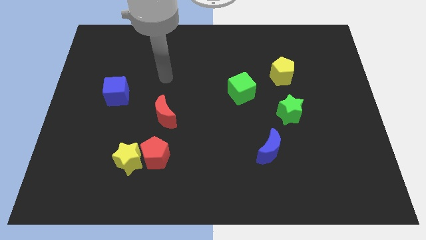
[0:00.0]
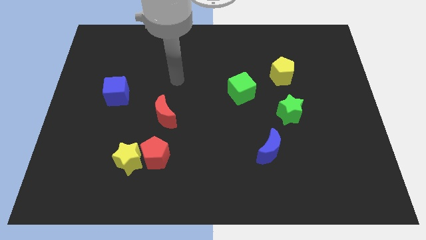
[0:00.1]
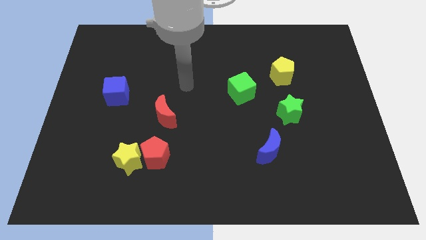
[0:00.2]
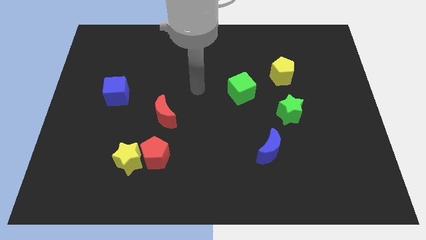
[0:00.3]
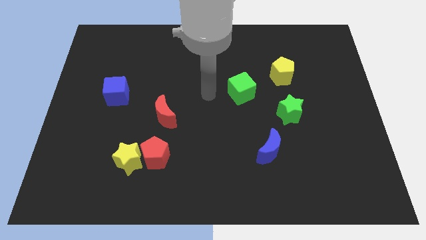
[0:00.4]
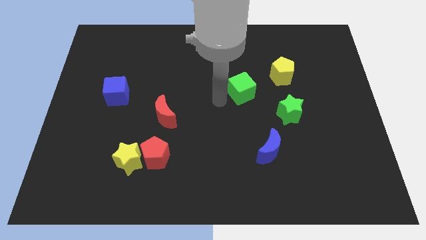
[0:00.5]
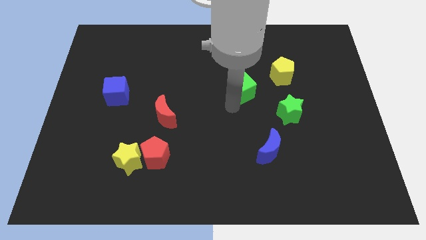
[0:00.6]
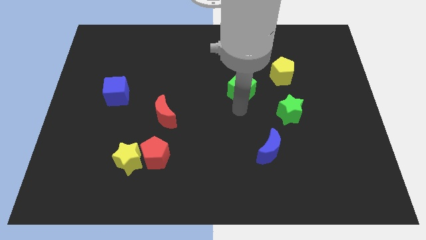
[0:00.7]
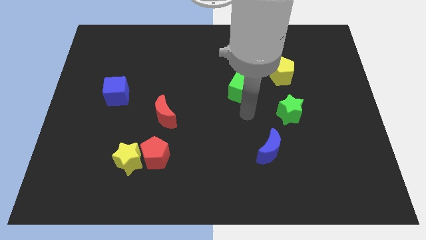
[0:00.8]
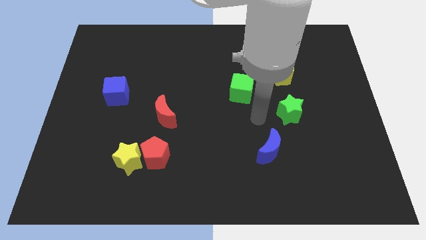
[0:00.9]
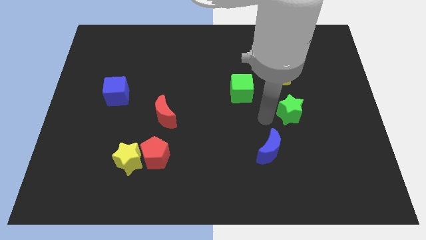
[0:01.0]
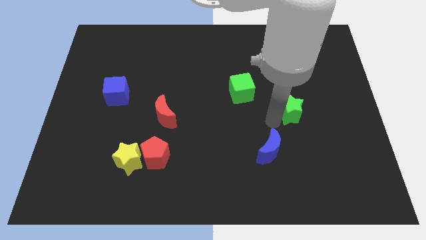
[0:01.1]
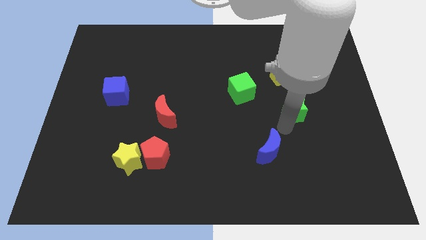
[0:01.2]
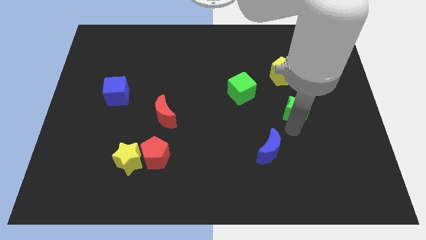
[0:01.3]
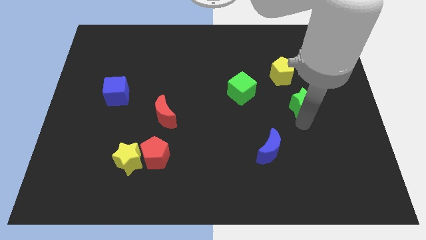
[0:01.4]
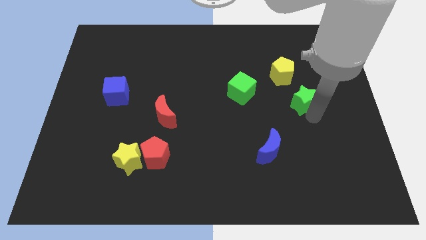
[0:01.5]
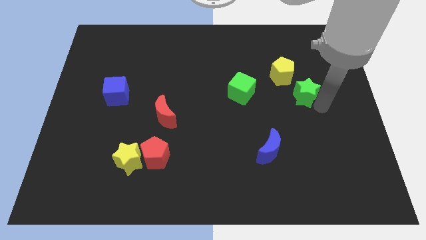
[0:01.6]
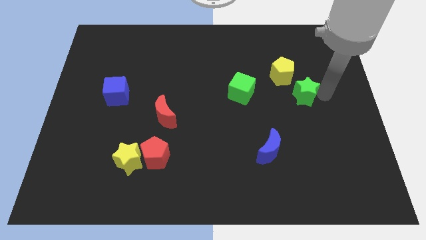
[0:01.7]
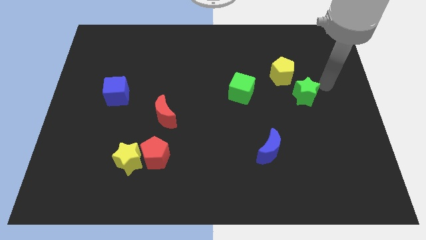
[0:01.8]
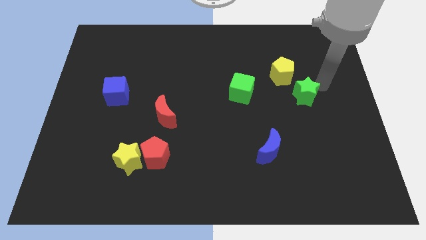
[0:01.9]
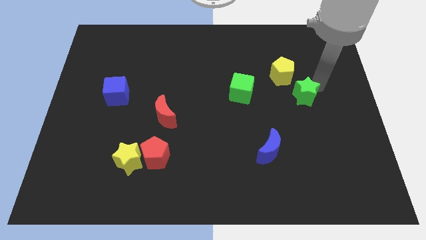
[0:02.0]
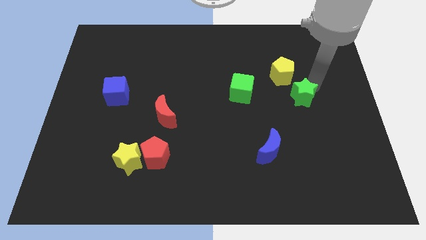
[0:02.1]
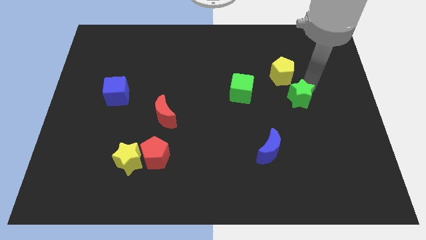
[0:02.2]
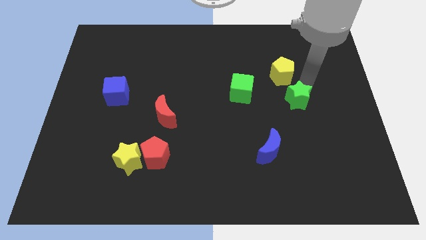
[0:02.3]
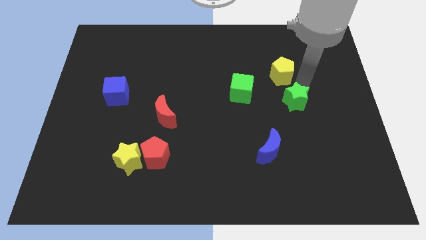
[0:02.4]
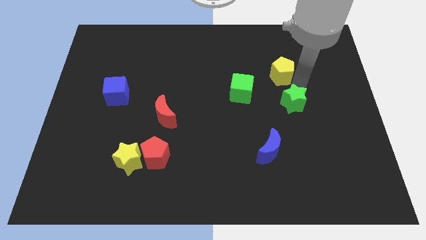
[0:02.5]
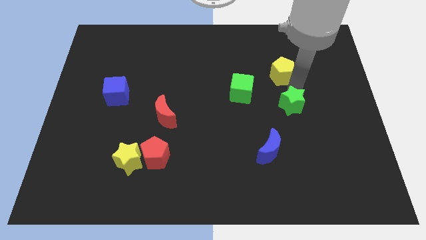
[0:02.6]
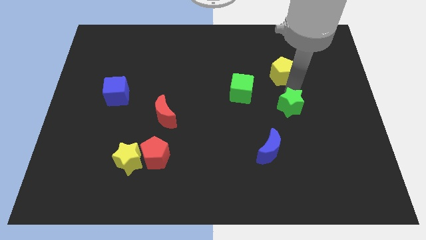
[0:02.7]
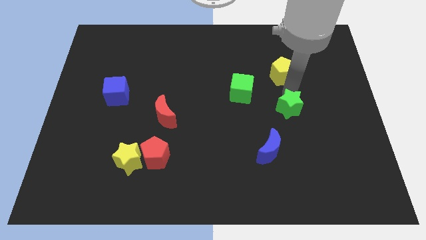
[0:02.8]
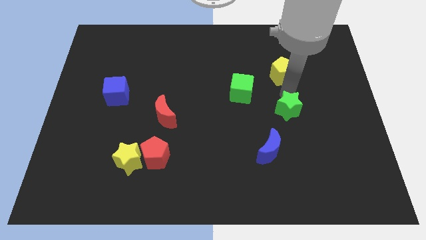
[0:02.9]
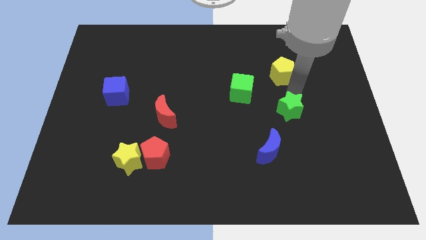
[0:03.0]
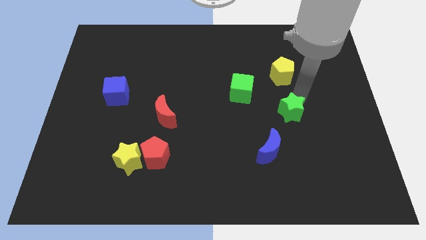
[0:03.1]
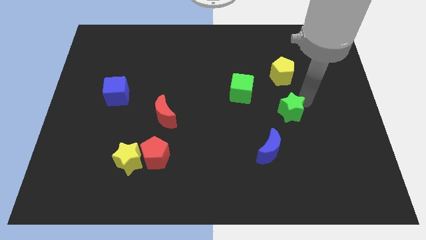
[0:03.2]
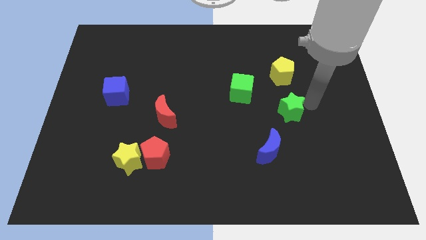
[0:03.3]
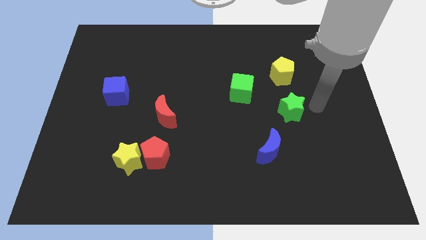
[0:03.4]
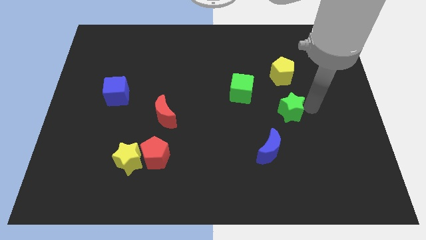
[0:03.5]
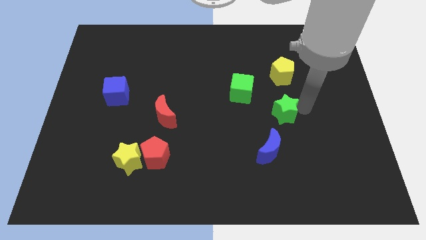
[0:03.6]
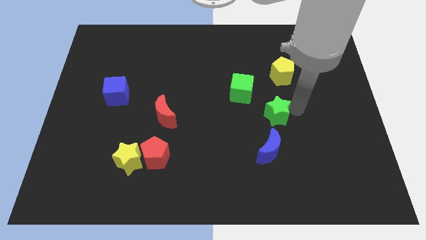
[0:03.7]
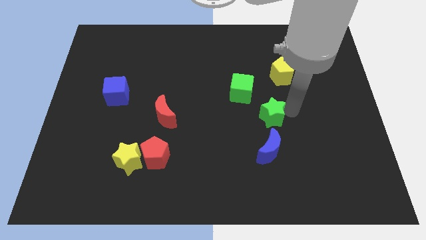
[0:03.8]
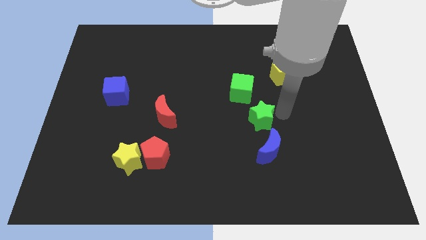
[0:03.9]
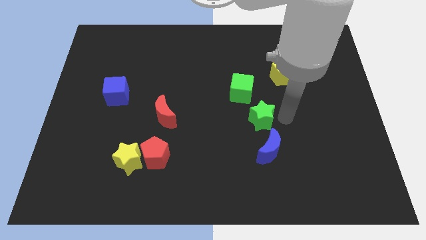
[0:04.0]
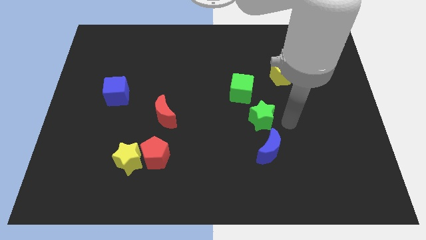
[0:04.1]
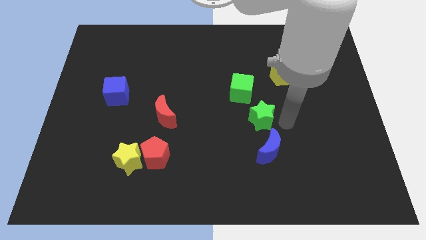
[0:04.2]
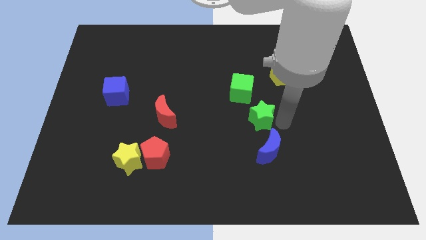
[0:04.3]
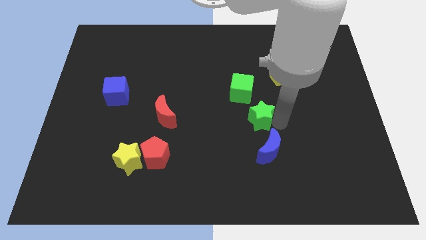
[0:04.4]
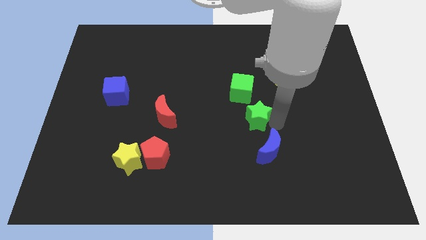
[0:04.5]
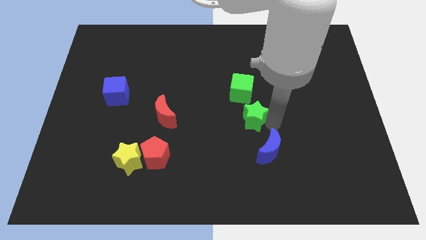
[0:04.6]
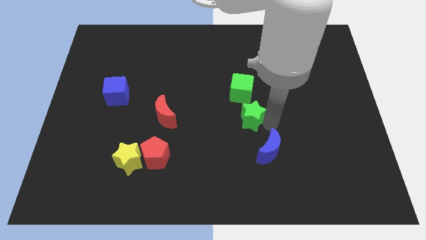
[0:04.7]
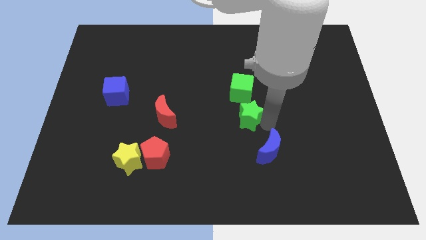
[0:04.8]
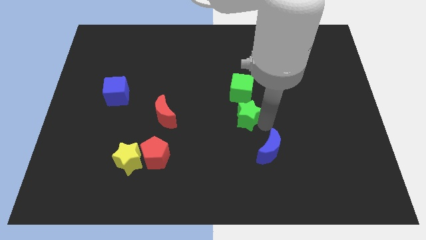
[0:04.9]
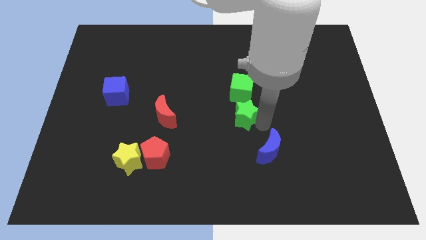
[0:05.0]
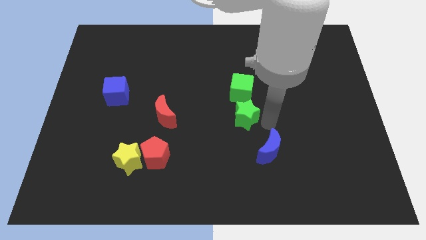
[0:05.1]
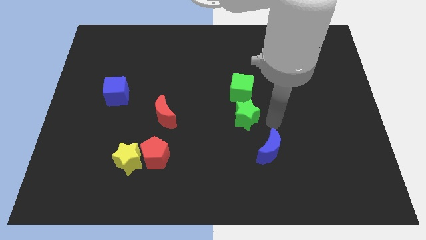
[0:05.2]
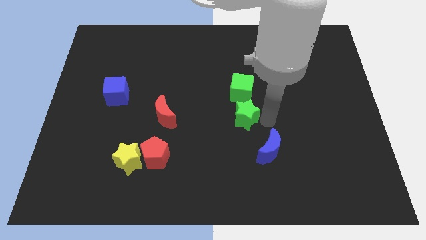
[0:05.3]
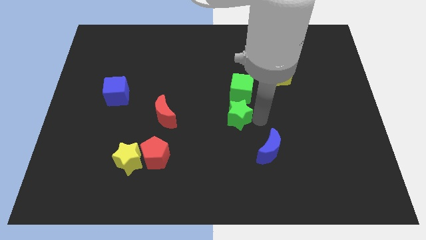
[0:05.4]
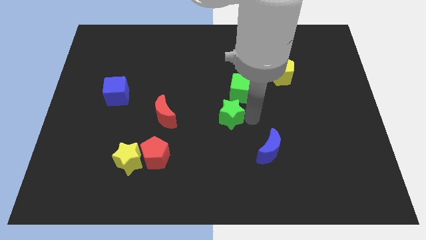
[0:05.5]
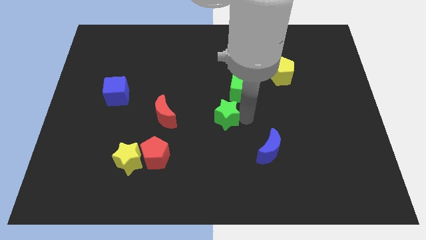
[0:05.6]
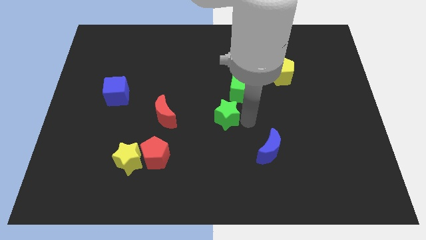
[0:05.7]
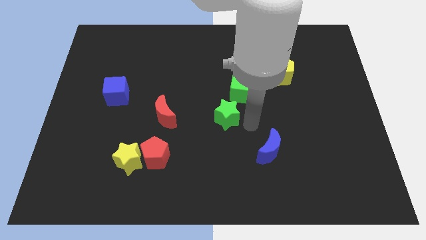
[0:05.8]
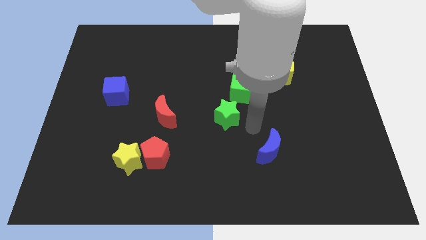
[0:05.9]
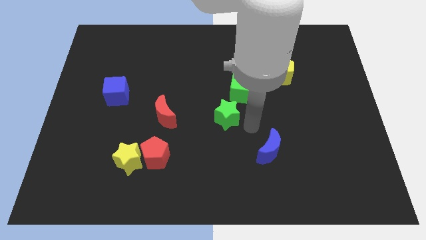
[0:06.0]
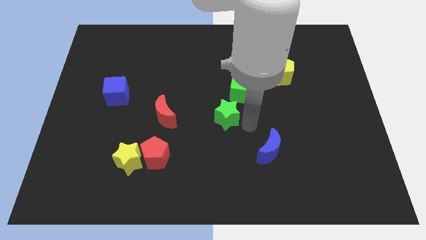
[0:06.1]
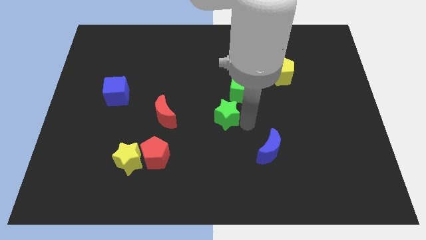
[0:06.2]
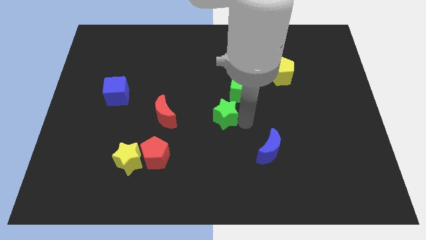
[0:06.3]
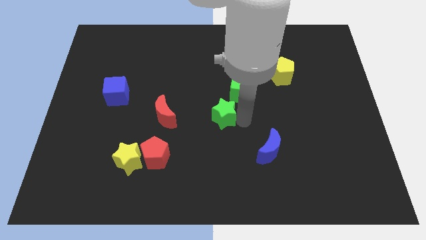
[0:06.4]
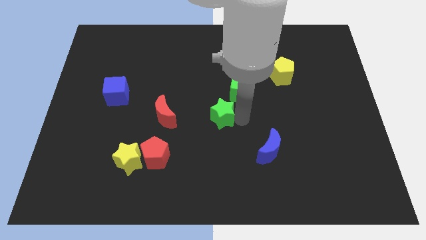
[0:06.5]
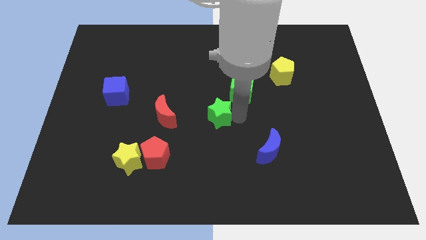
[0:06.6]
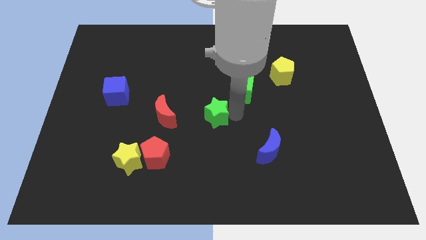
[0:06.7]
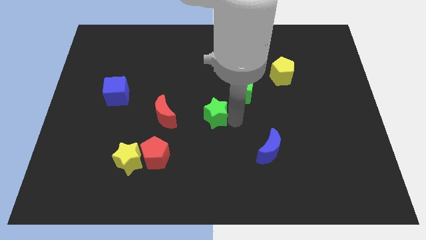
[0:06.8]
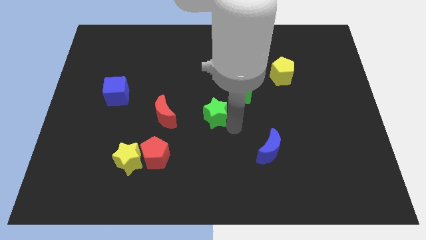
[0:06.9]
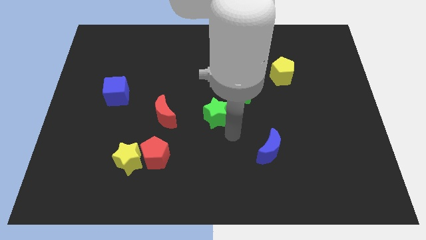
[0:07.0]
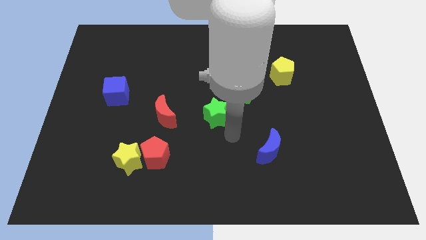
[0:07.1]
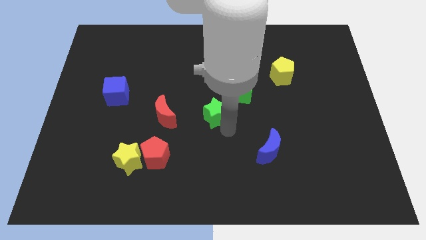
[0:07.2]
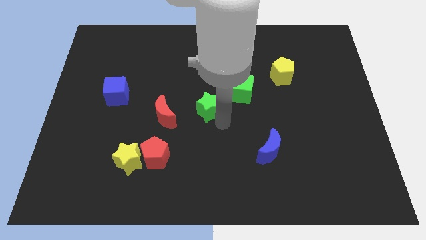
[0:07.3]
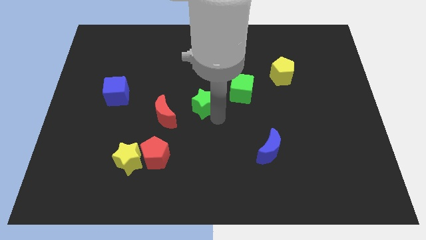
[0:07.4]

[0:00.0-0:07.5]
move the green star just left of the green cube
